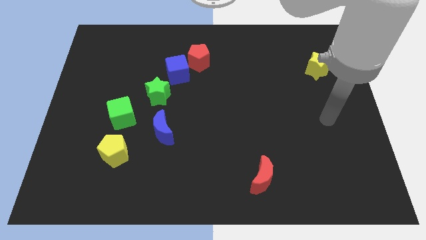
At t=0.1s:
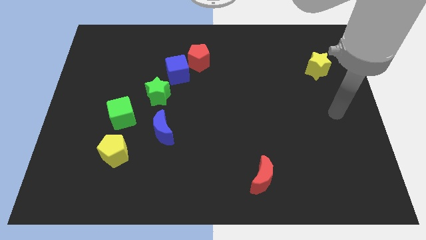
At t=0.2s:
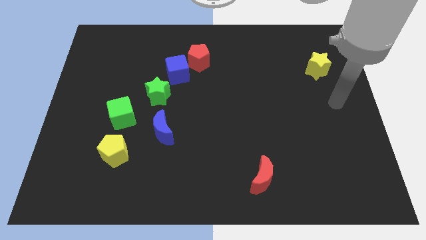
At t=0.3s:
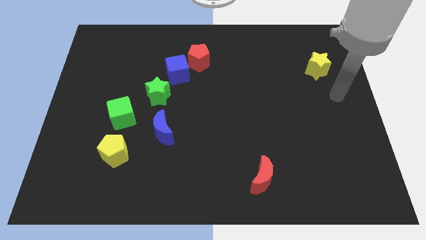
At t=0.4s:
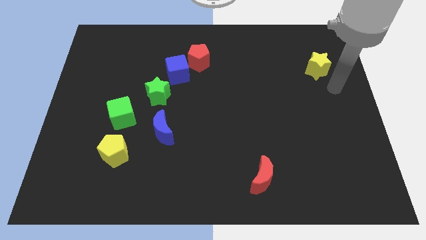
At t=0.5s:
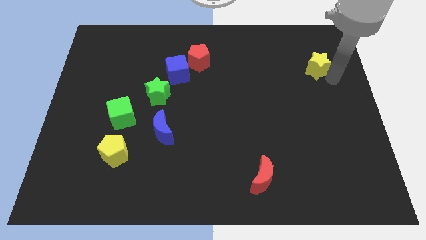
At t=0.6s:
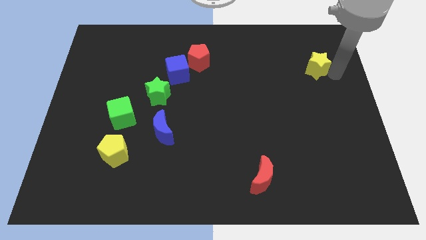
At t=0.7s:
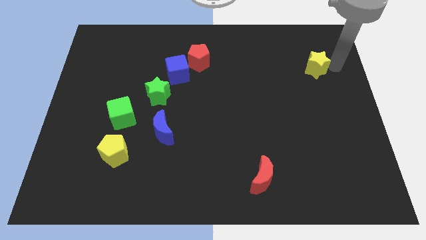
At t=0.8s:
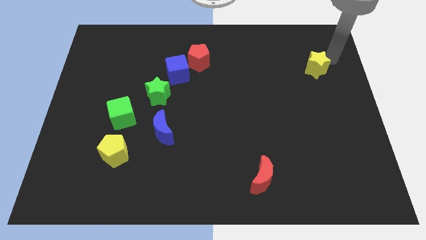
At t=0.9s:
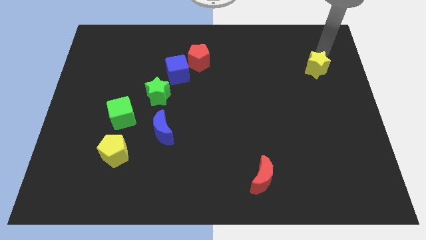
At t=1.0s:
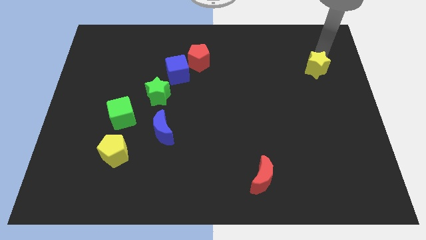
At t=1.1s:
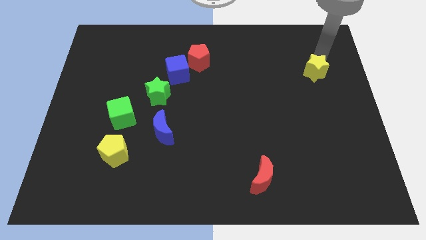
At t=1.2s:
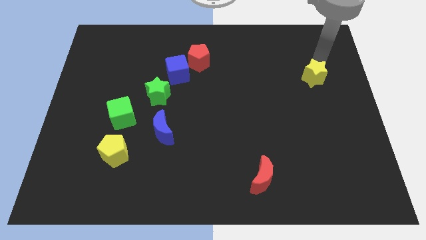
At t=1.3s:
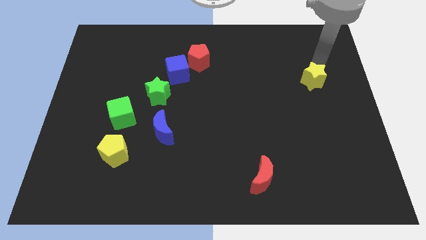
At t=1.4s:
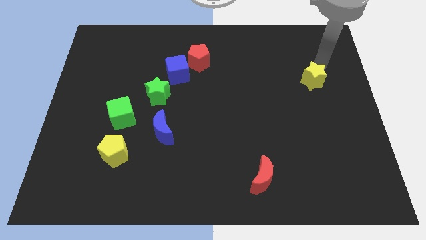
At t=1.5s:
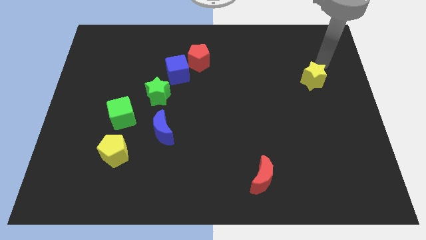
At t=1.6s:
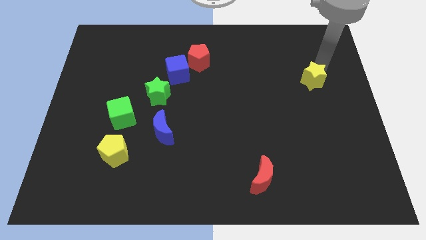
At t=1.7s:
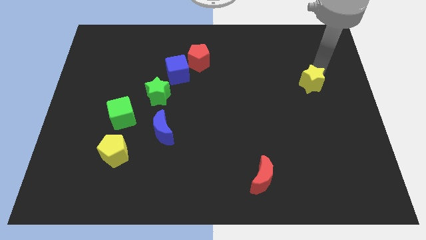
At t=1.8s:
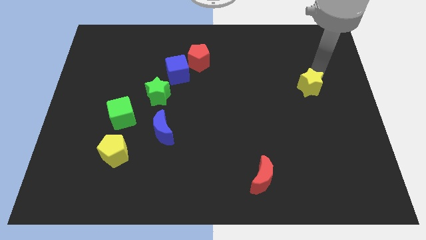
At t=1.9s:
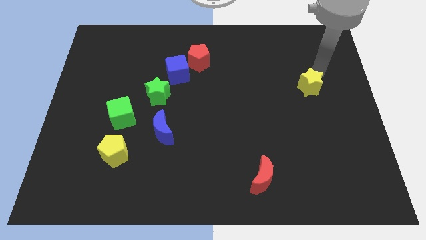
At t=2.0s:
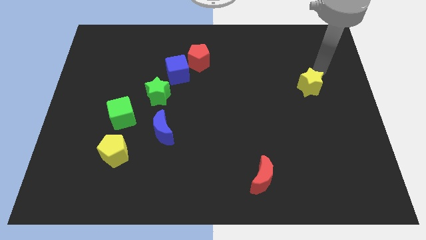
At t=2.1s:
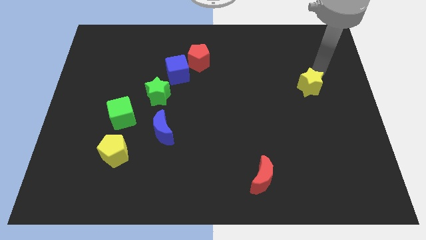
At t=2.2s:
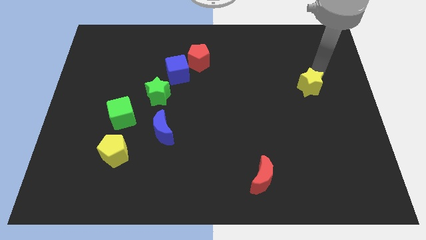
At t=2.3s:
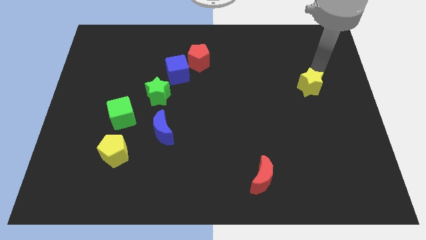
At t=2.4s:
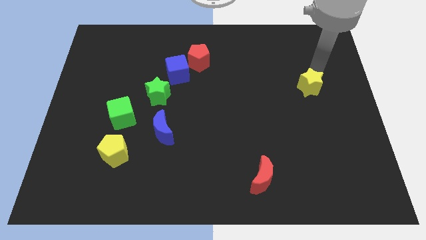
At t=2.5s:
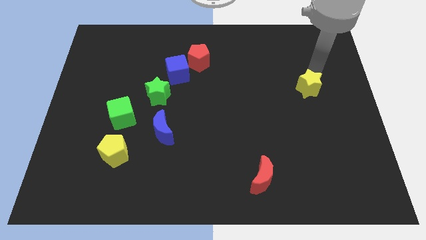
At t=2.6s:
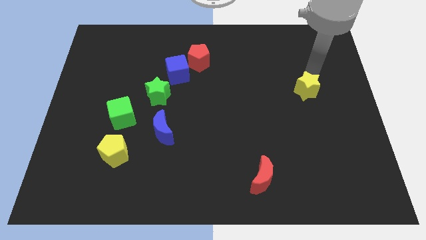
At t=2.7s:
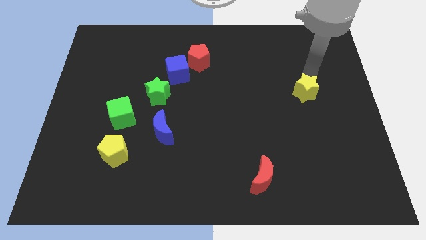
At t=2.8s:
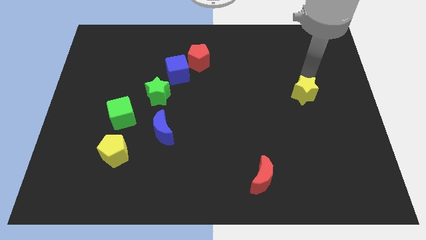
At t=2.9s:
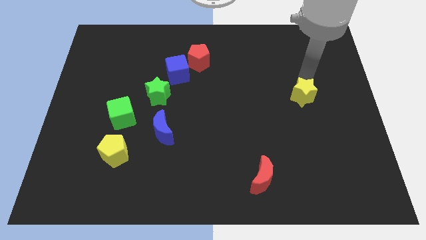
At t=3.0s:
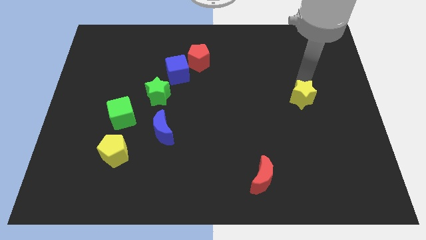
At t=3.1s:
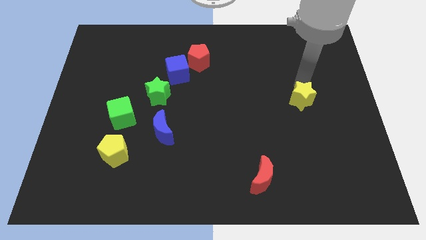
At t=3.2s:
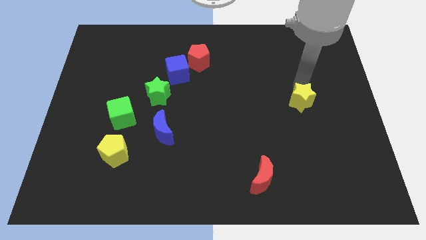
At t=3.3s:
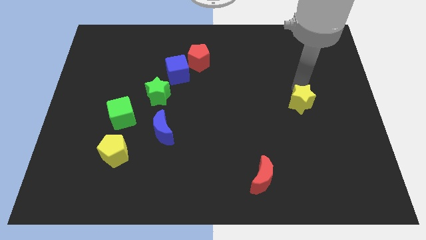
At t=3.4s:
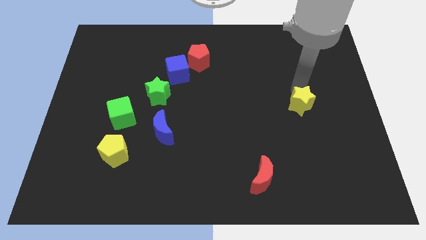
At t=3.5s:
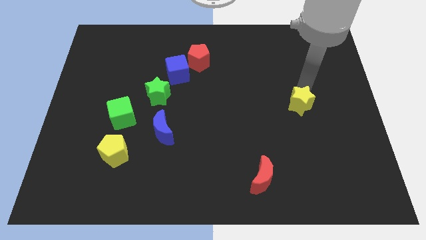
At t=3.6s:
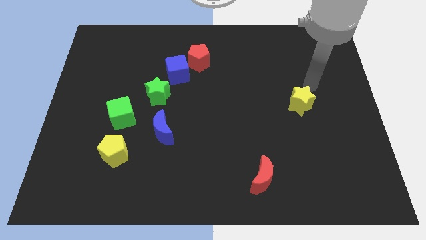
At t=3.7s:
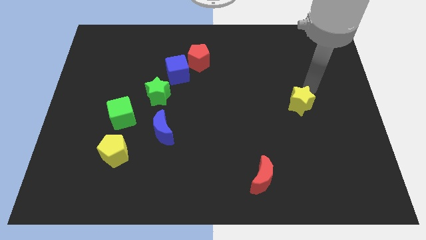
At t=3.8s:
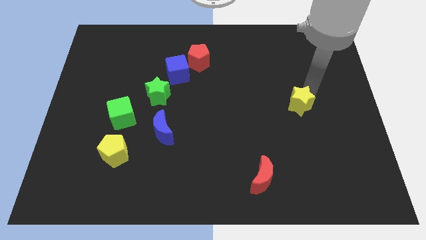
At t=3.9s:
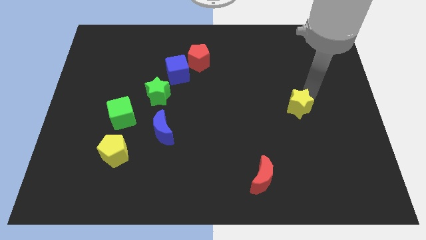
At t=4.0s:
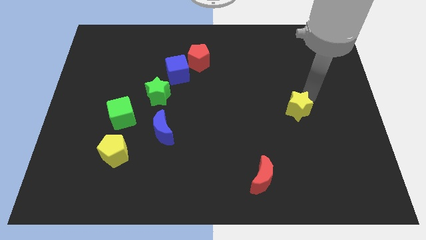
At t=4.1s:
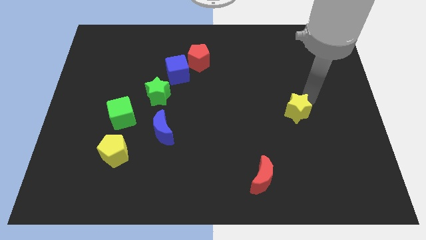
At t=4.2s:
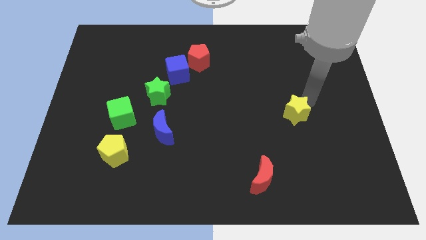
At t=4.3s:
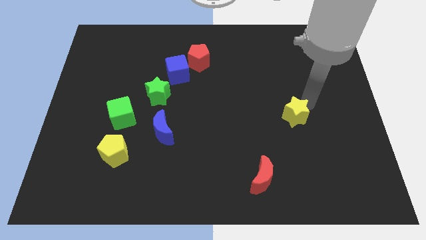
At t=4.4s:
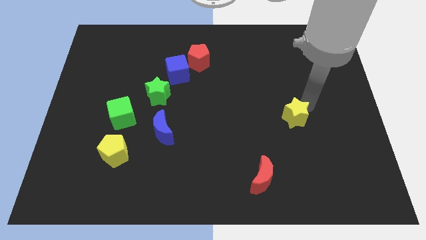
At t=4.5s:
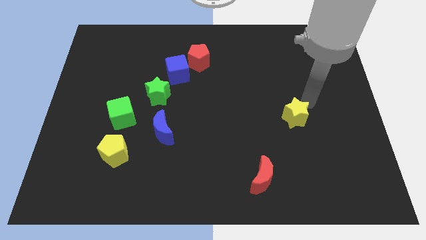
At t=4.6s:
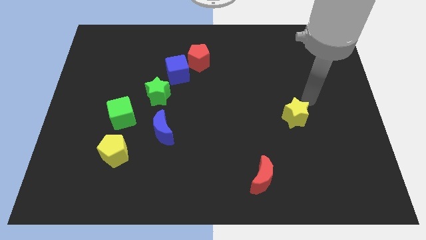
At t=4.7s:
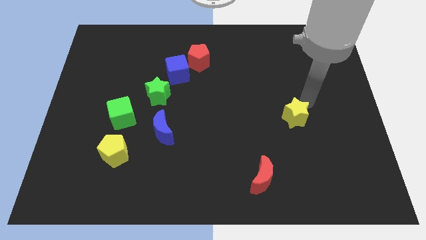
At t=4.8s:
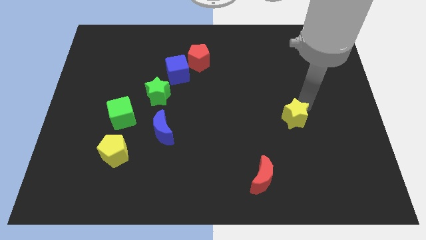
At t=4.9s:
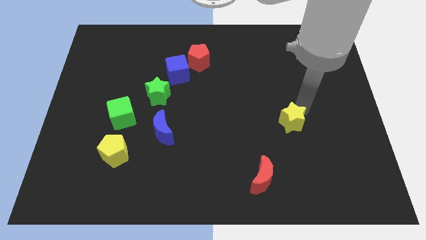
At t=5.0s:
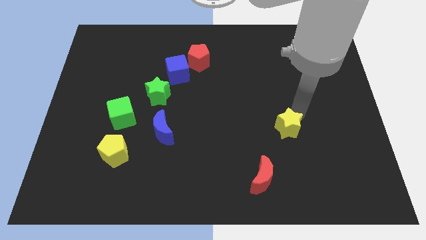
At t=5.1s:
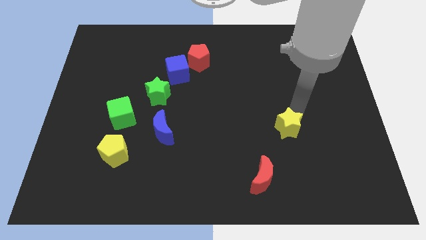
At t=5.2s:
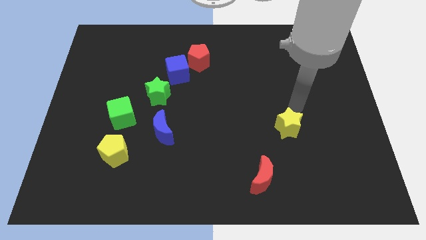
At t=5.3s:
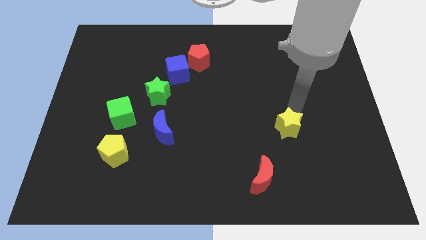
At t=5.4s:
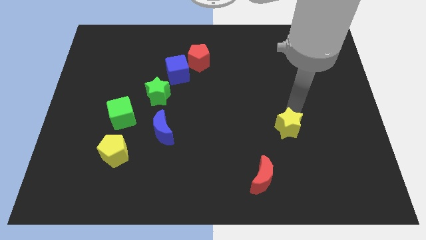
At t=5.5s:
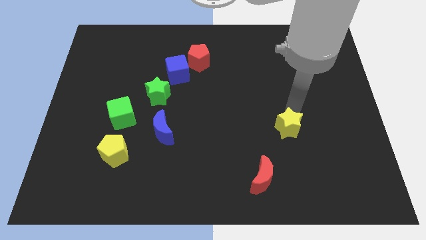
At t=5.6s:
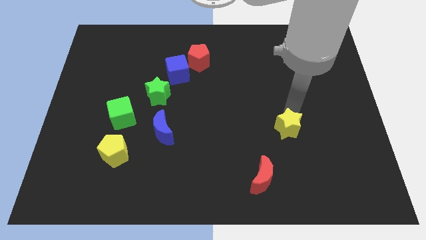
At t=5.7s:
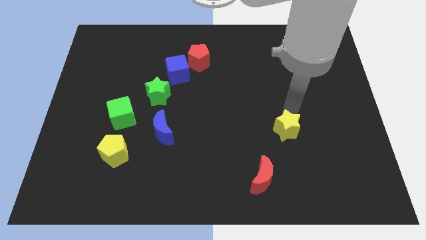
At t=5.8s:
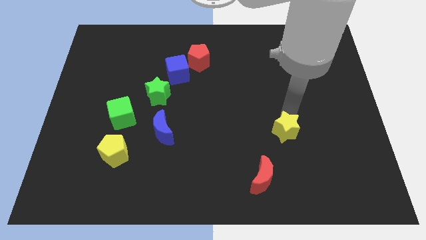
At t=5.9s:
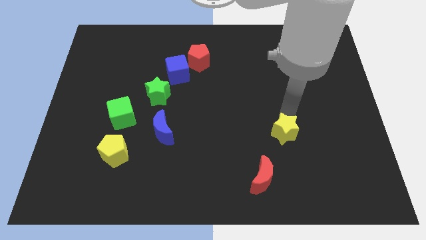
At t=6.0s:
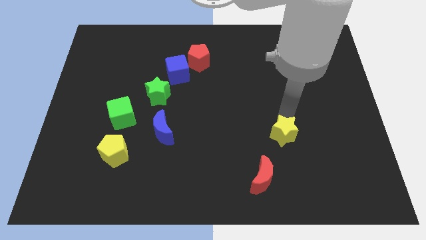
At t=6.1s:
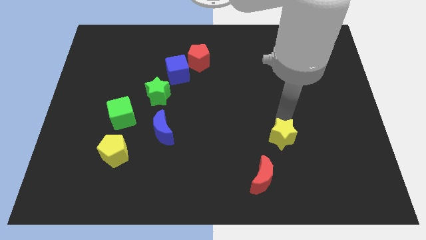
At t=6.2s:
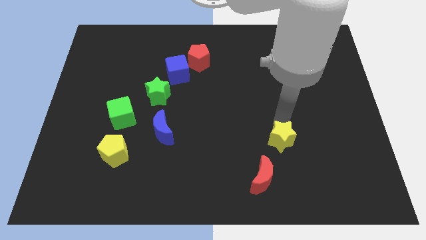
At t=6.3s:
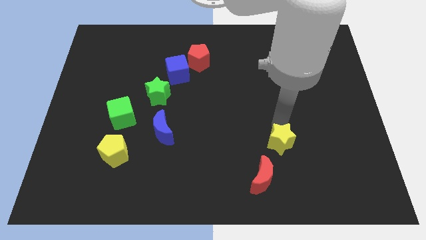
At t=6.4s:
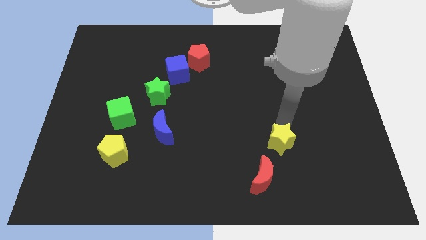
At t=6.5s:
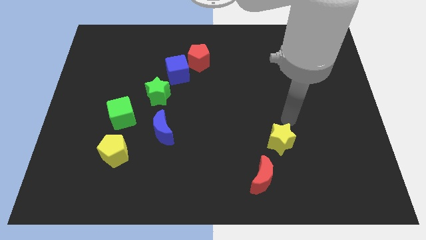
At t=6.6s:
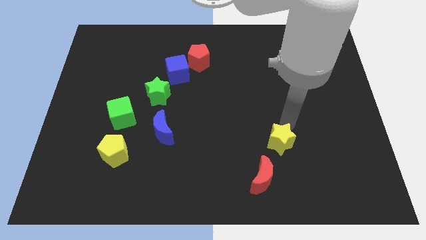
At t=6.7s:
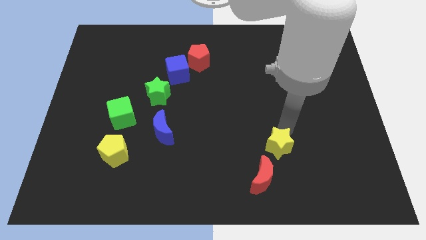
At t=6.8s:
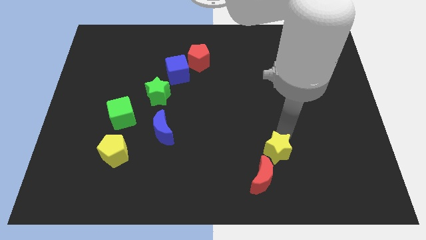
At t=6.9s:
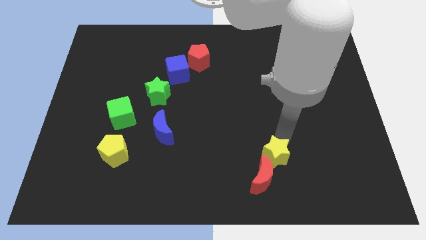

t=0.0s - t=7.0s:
put the yellow star to the red moon
